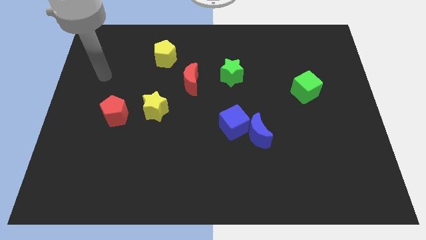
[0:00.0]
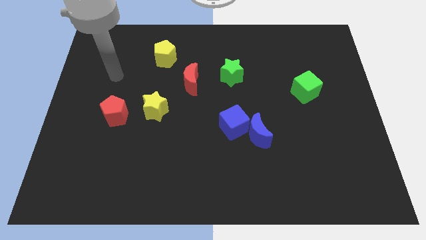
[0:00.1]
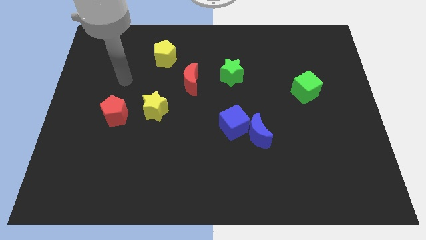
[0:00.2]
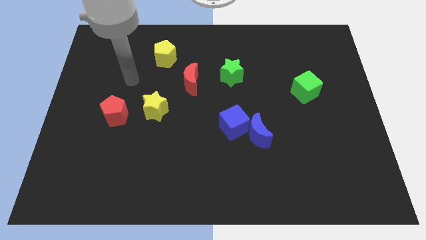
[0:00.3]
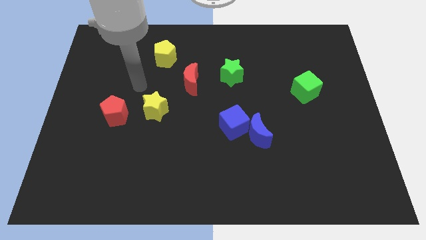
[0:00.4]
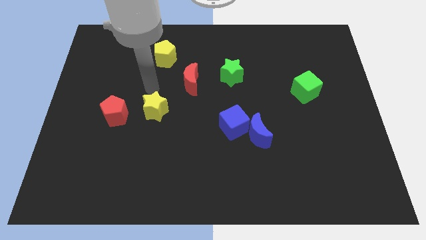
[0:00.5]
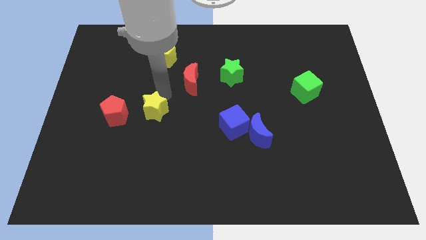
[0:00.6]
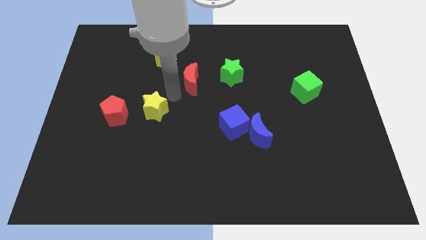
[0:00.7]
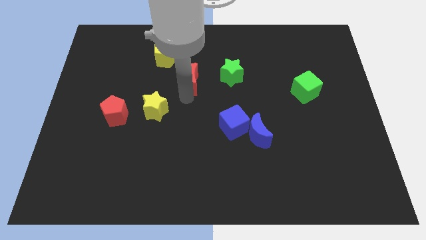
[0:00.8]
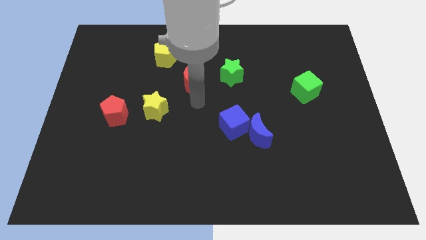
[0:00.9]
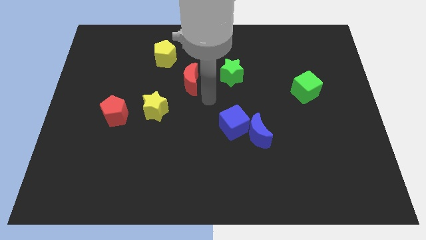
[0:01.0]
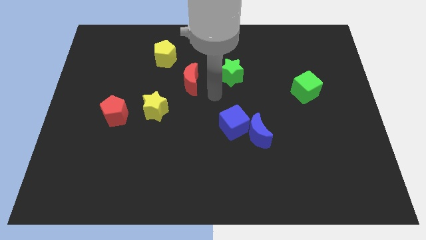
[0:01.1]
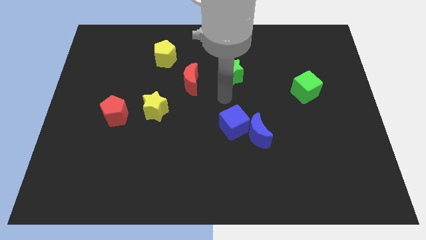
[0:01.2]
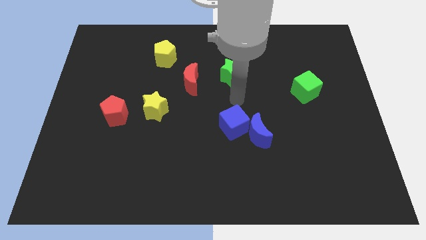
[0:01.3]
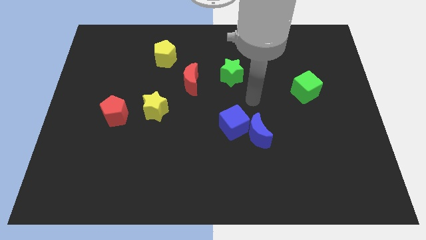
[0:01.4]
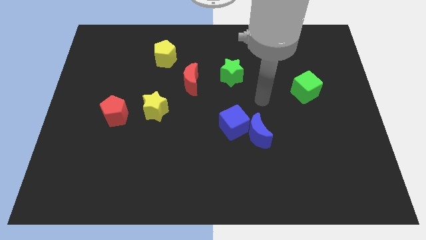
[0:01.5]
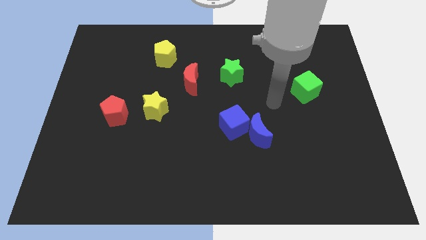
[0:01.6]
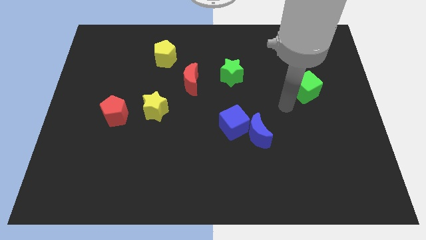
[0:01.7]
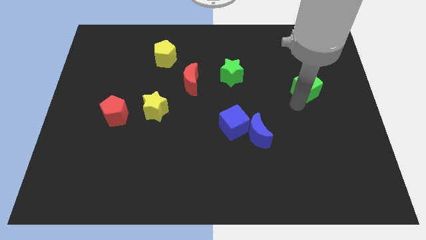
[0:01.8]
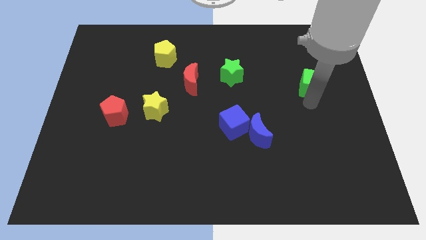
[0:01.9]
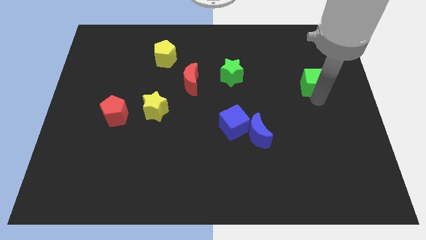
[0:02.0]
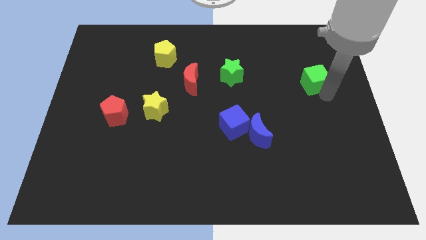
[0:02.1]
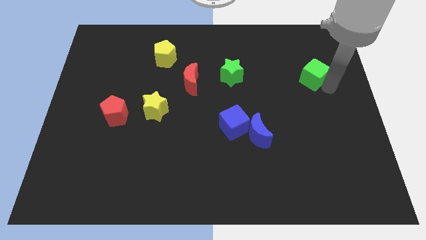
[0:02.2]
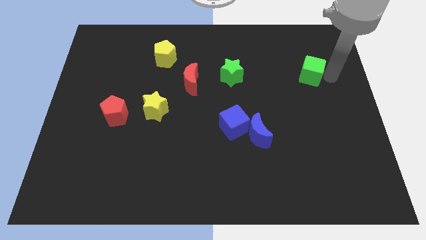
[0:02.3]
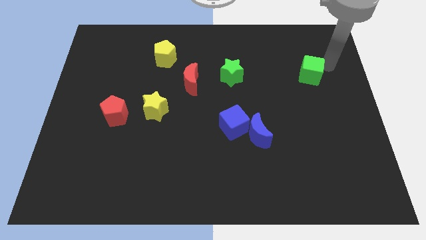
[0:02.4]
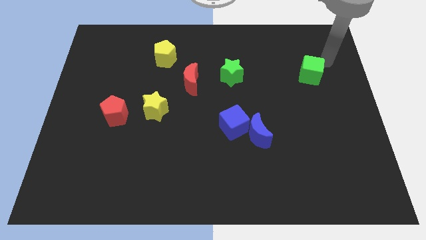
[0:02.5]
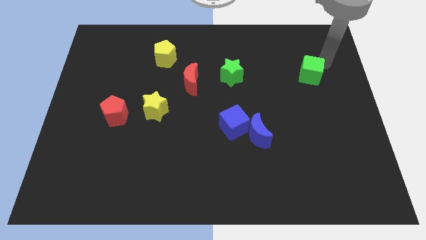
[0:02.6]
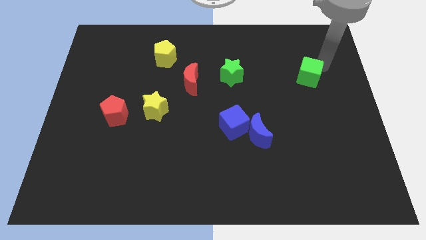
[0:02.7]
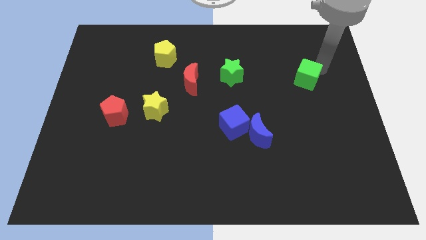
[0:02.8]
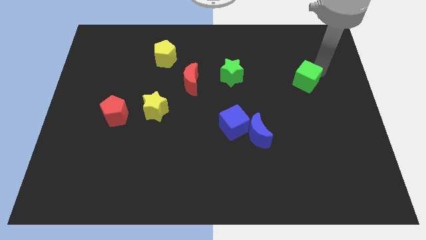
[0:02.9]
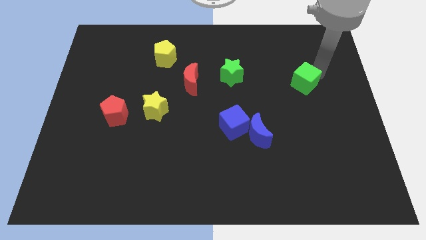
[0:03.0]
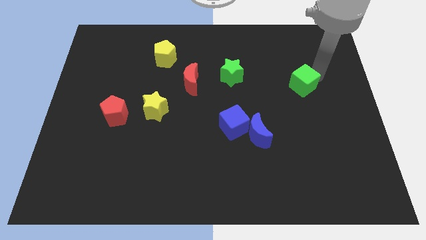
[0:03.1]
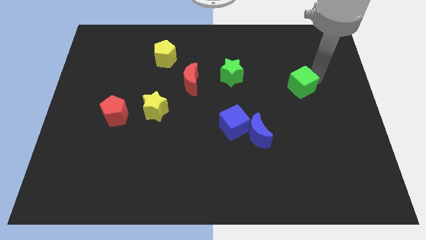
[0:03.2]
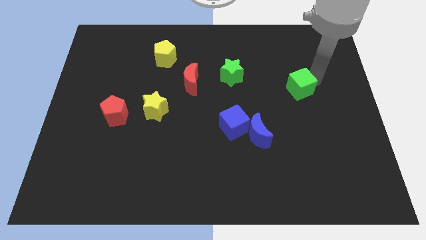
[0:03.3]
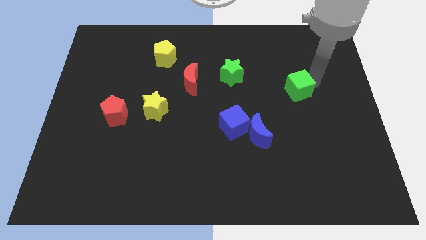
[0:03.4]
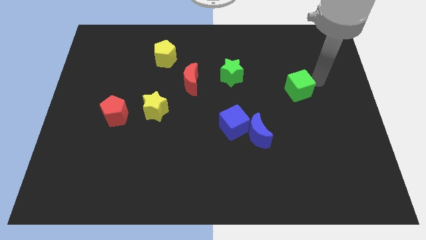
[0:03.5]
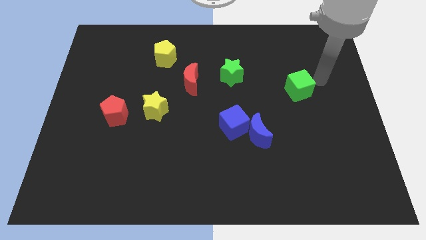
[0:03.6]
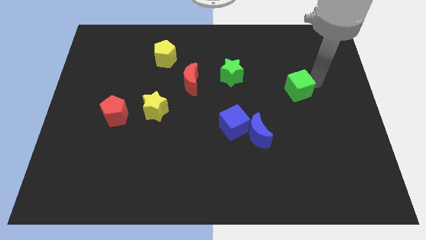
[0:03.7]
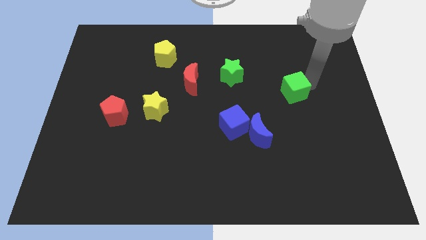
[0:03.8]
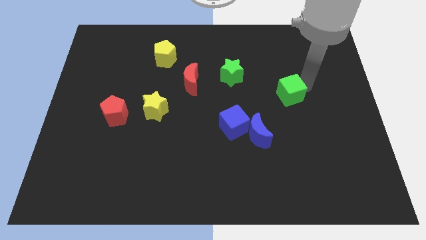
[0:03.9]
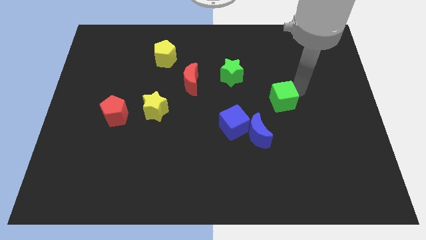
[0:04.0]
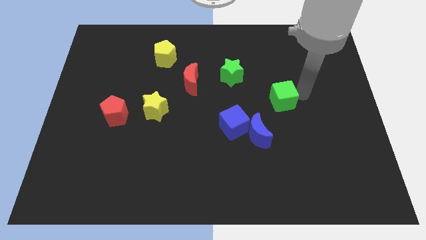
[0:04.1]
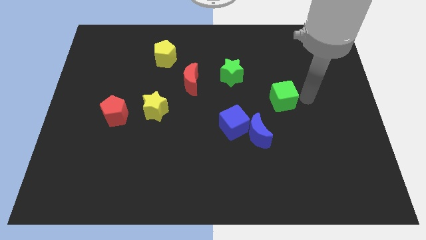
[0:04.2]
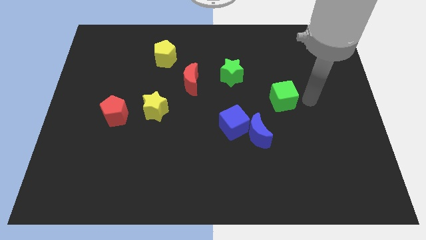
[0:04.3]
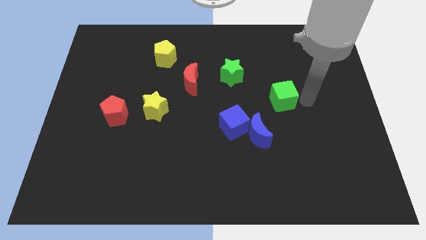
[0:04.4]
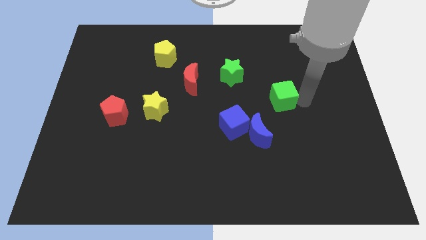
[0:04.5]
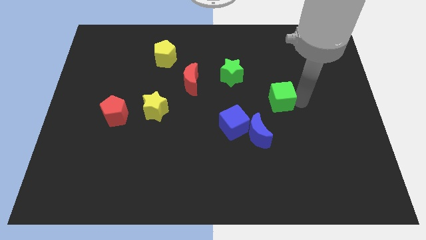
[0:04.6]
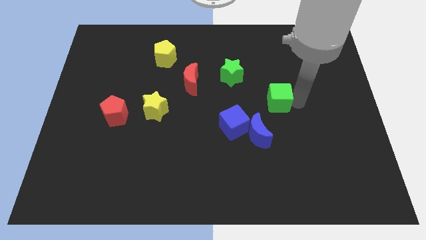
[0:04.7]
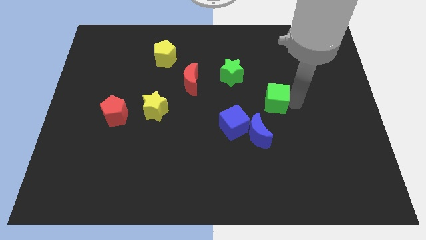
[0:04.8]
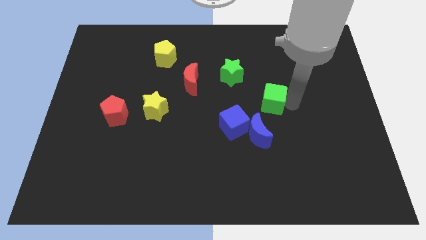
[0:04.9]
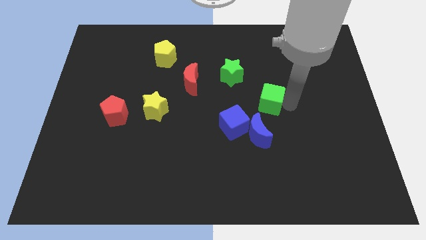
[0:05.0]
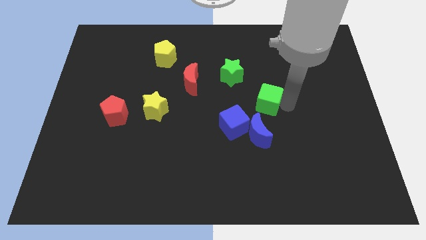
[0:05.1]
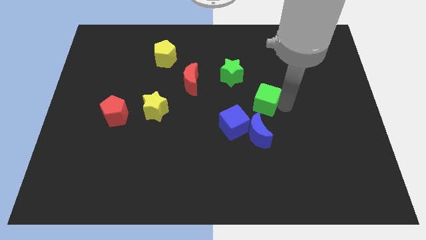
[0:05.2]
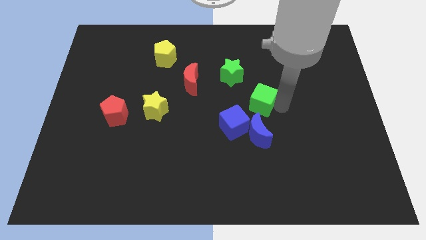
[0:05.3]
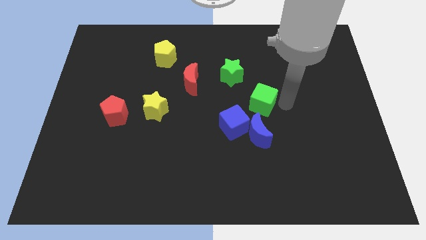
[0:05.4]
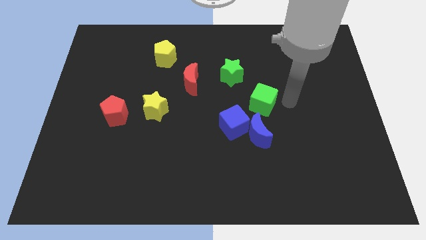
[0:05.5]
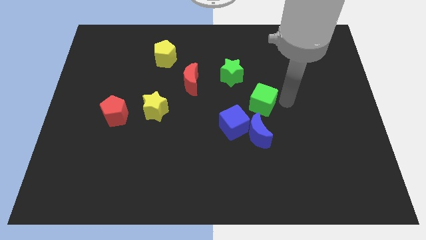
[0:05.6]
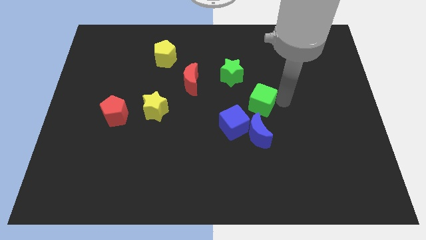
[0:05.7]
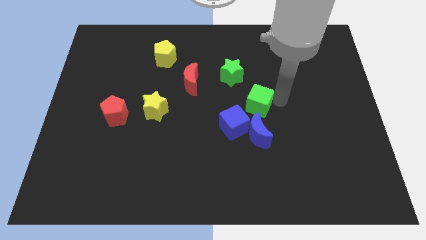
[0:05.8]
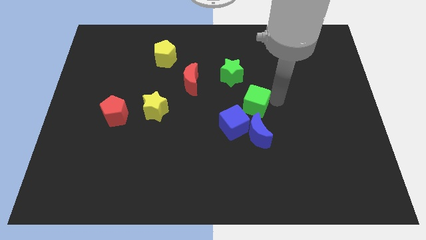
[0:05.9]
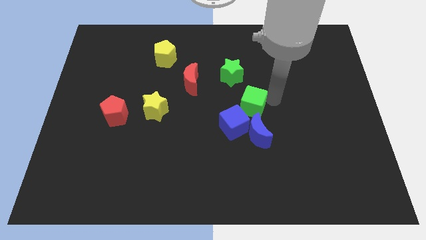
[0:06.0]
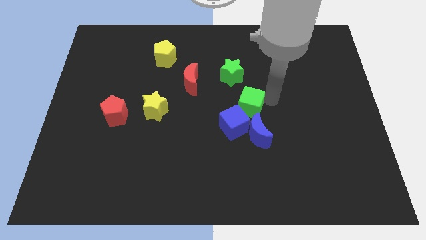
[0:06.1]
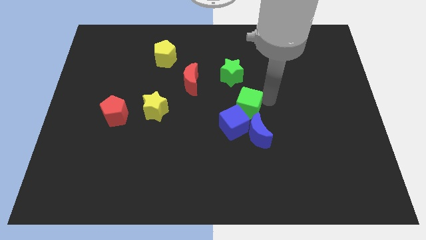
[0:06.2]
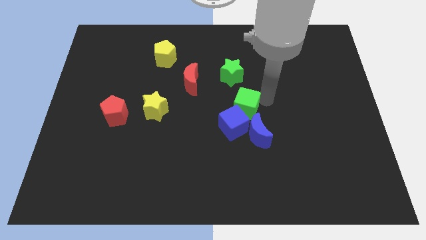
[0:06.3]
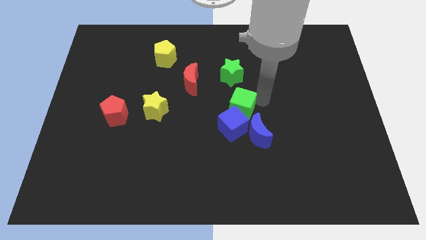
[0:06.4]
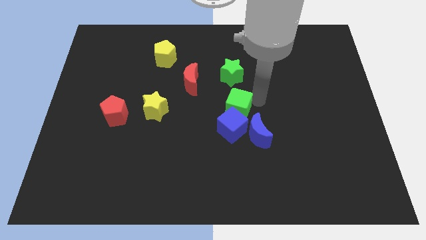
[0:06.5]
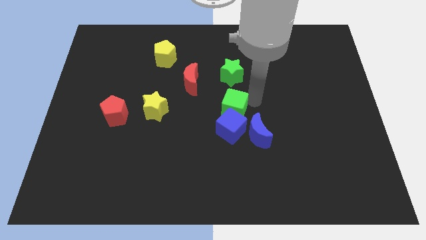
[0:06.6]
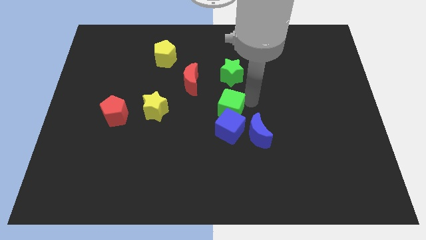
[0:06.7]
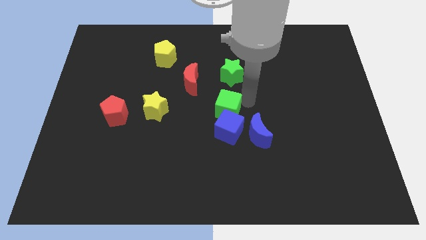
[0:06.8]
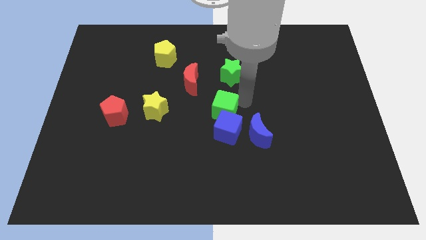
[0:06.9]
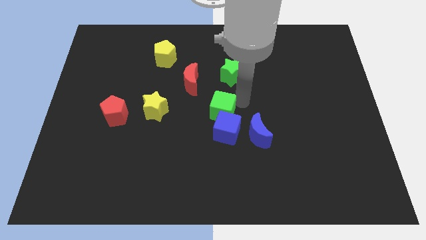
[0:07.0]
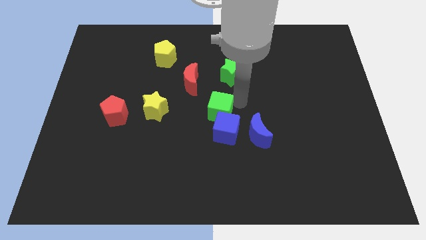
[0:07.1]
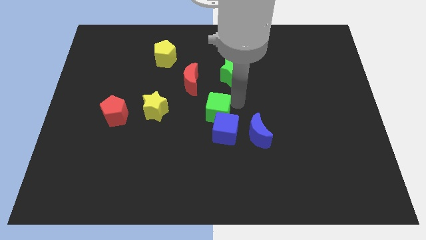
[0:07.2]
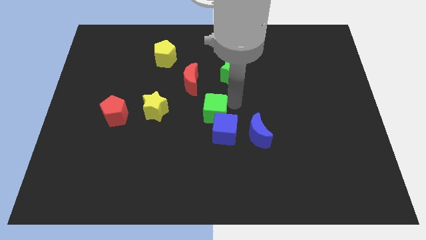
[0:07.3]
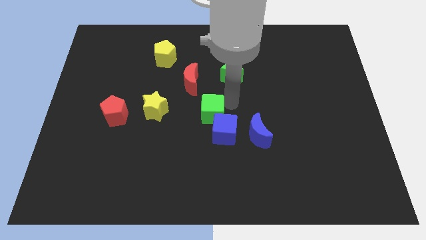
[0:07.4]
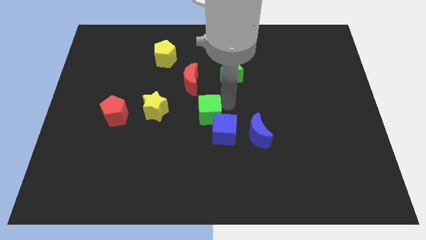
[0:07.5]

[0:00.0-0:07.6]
put the green cube below the red moon
